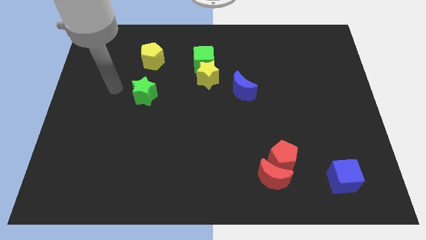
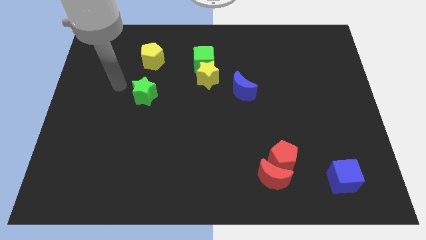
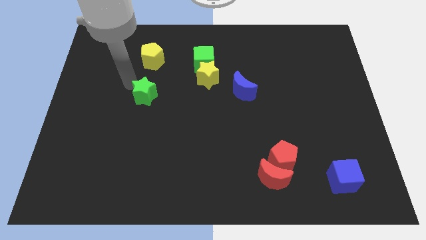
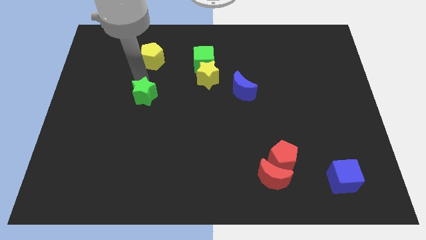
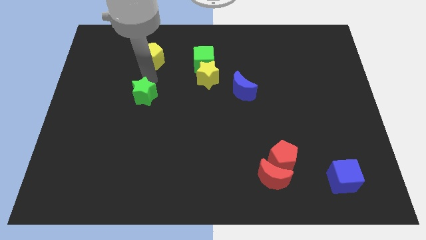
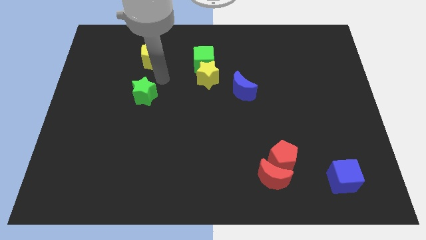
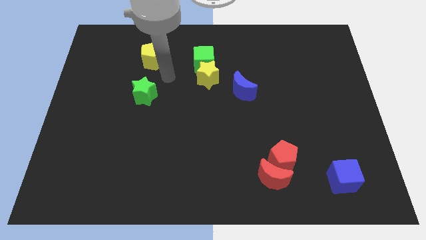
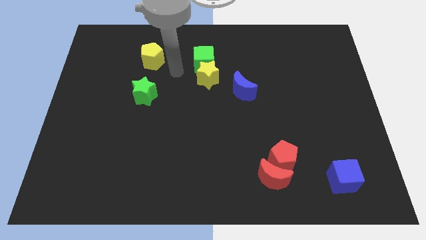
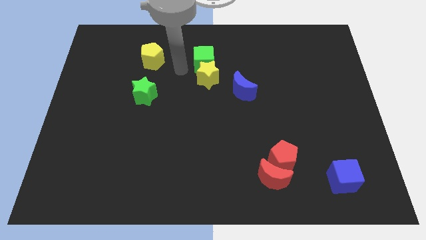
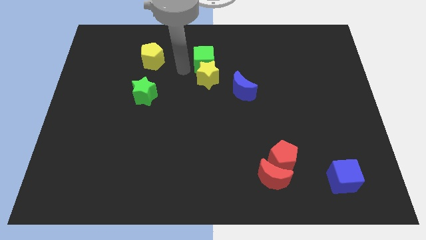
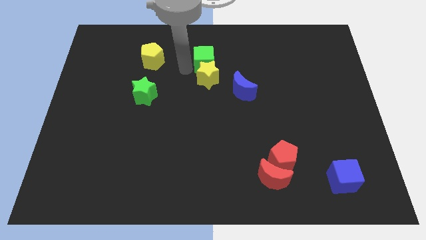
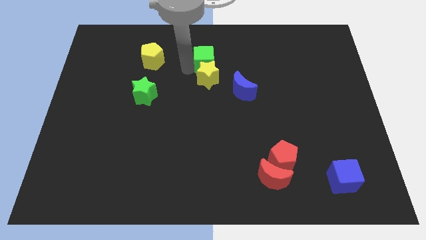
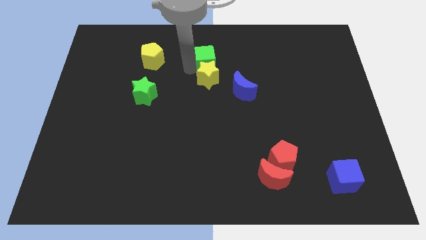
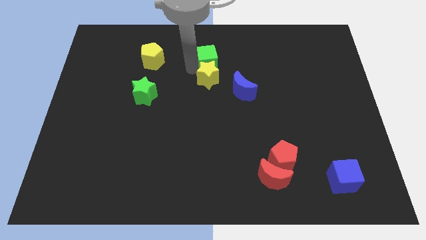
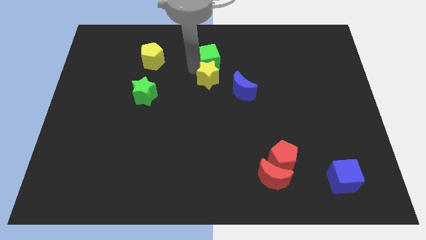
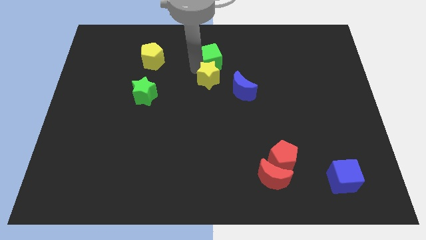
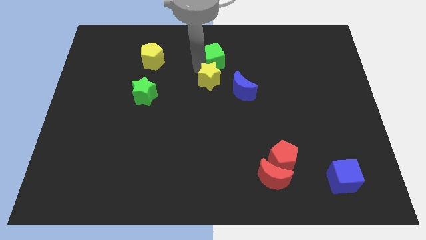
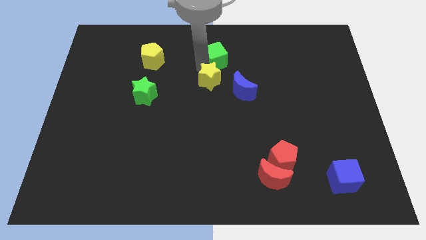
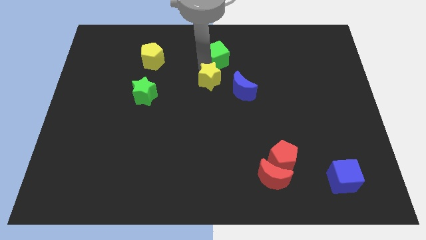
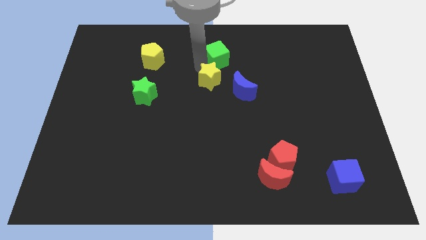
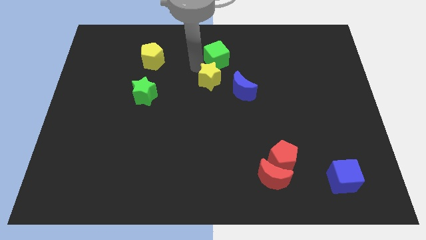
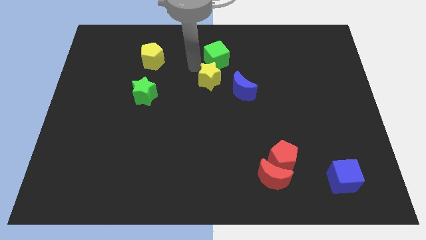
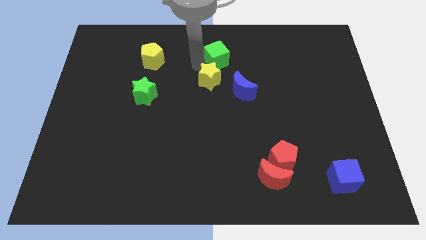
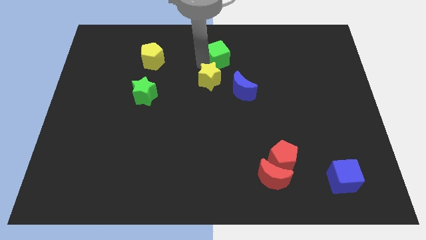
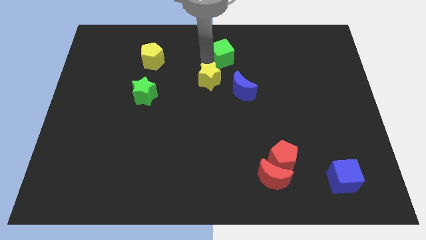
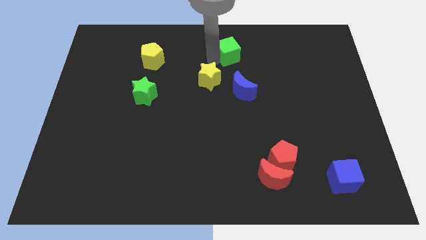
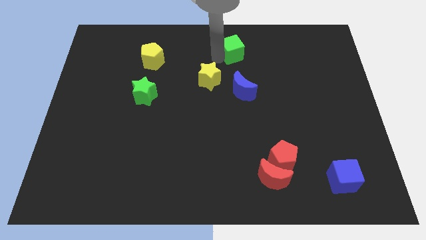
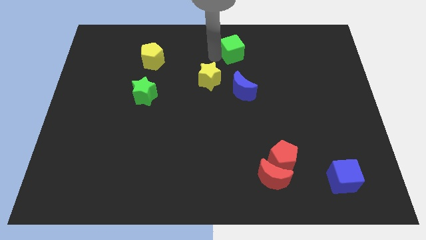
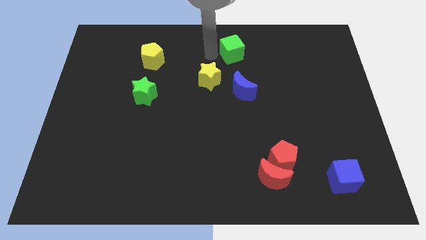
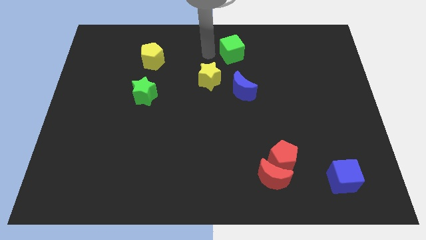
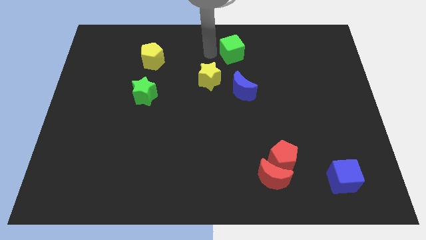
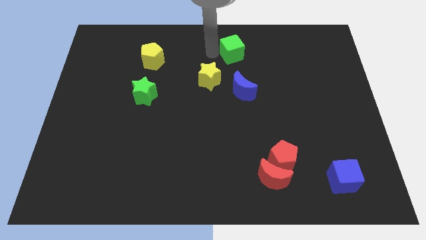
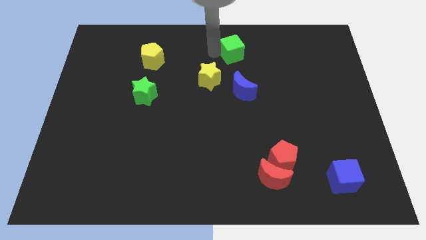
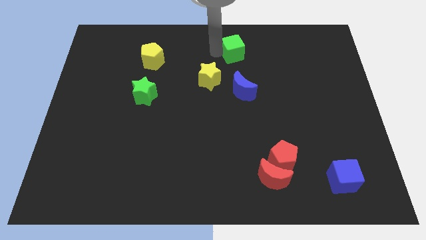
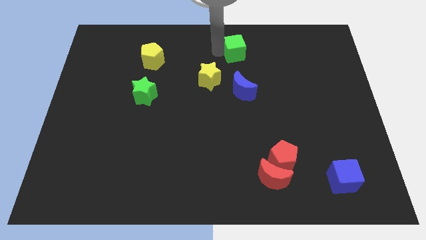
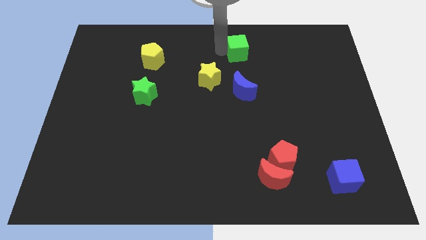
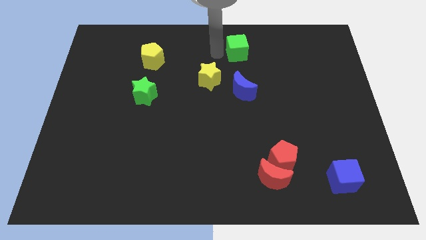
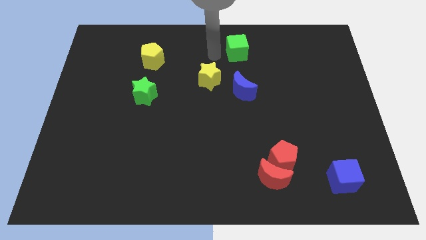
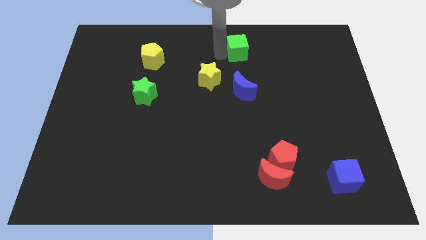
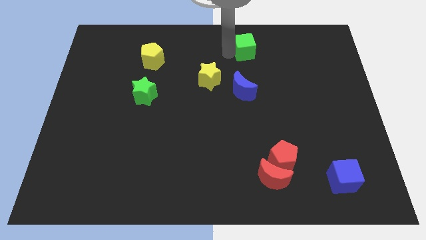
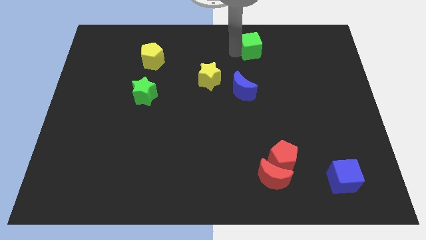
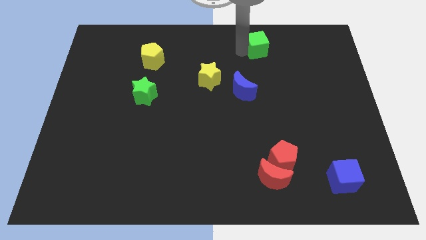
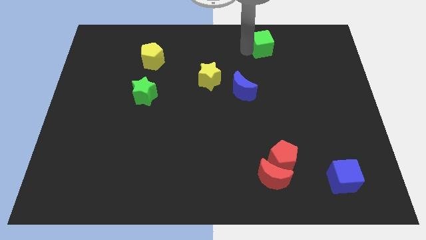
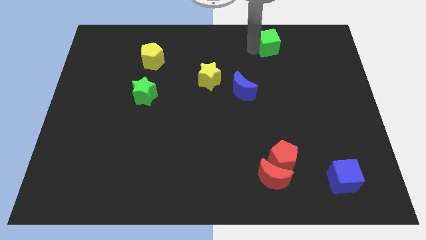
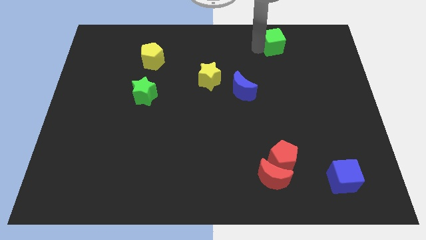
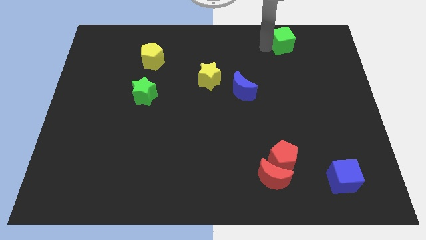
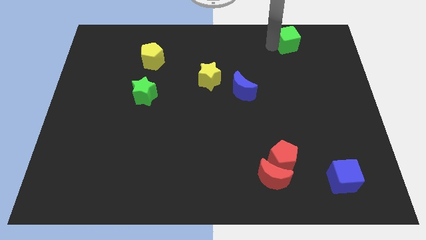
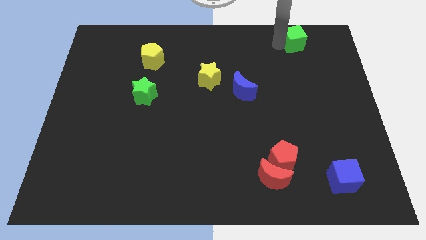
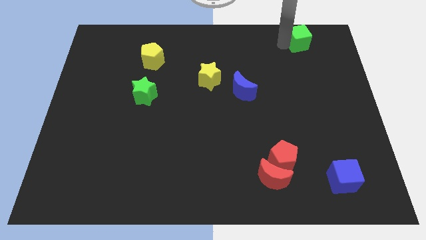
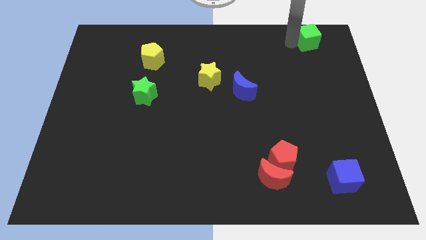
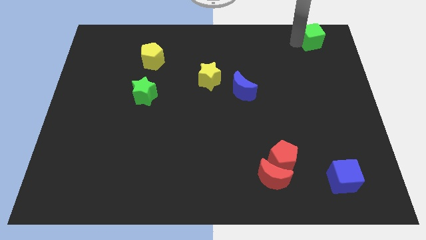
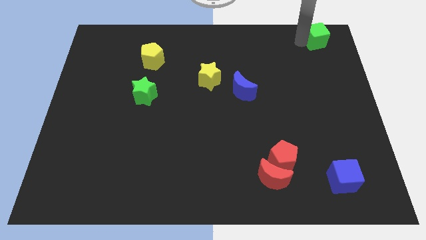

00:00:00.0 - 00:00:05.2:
move the green cube to the top right corner

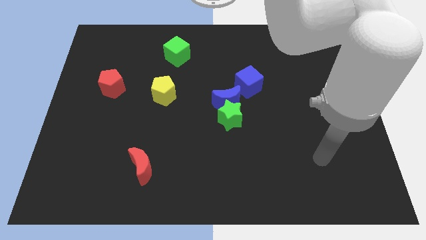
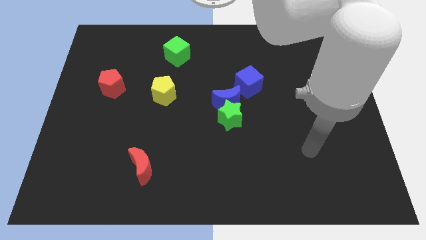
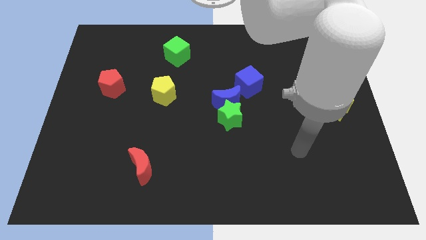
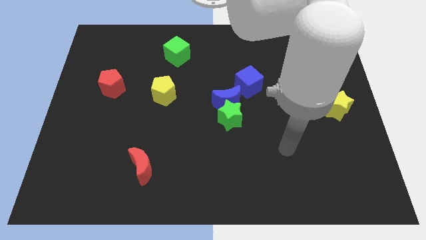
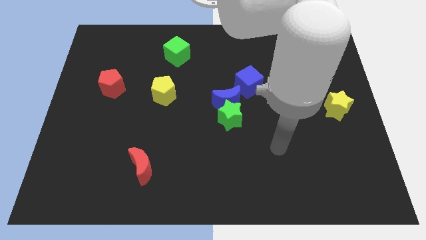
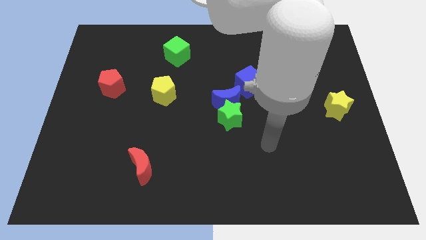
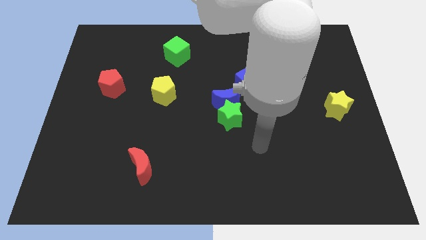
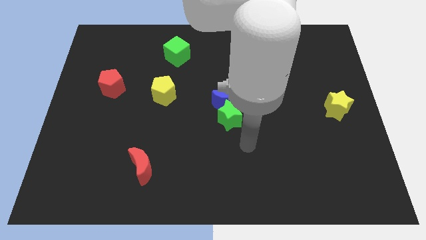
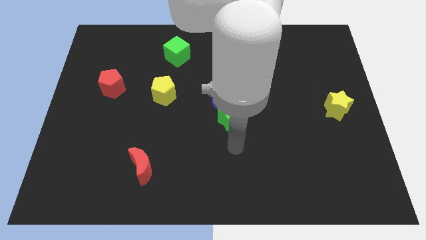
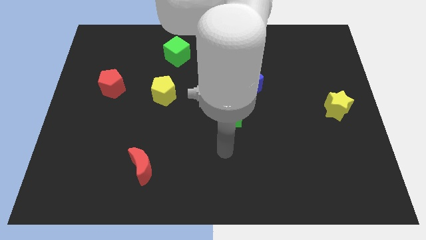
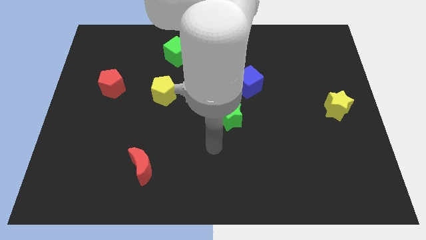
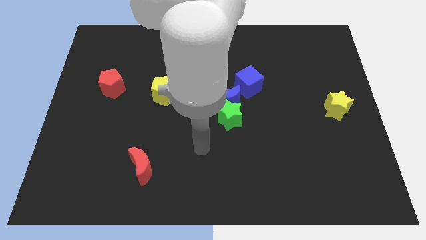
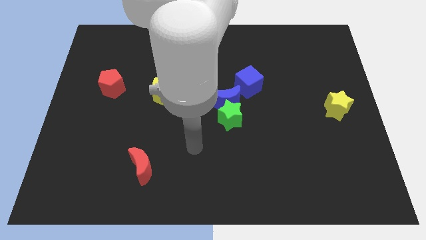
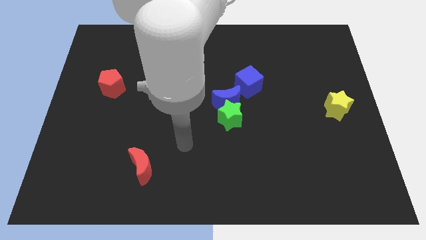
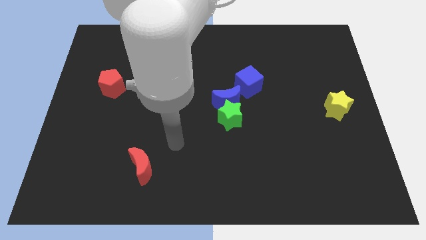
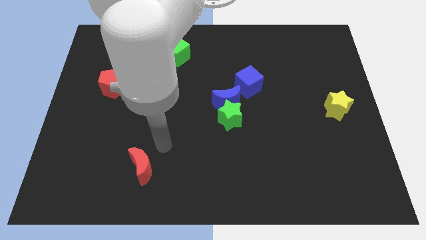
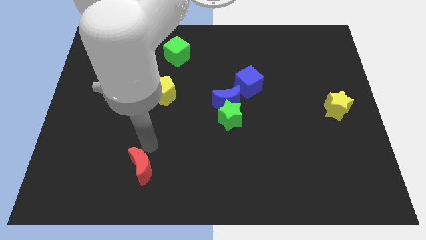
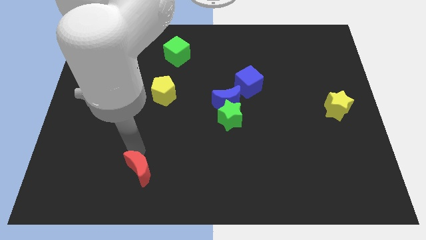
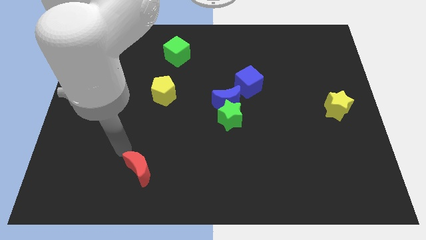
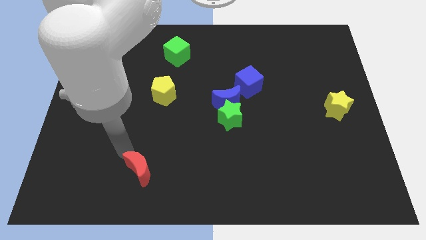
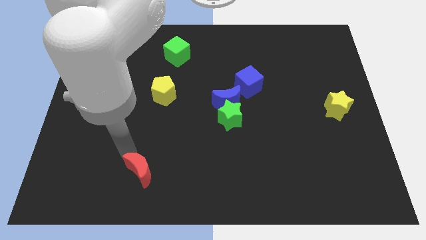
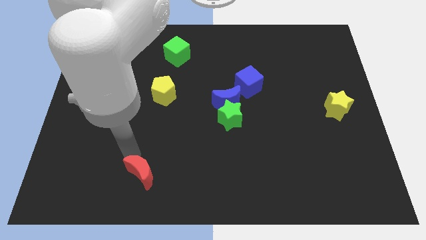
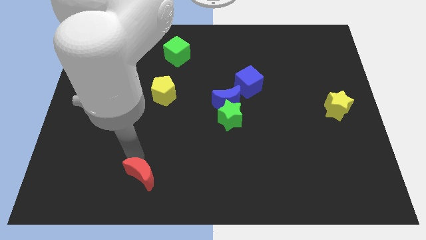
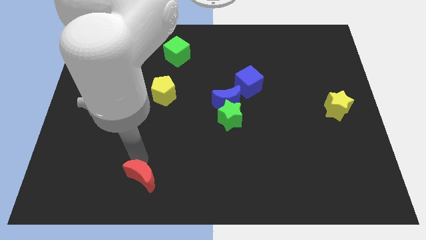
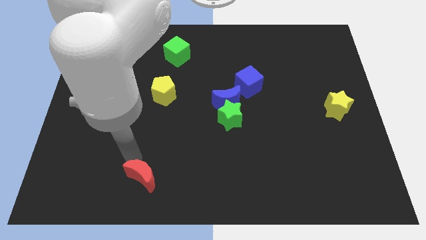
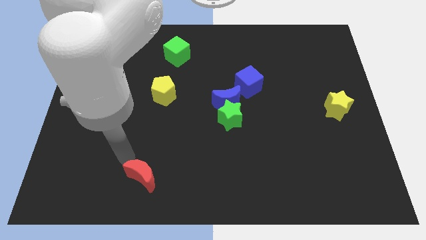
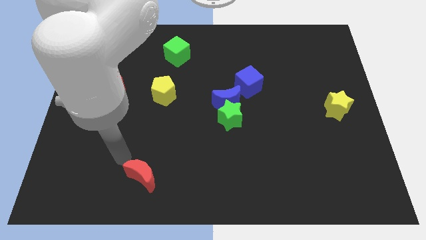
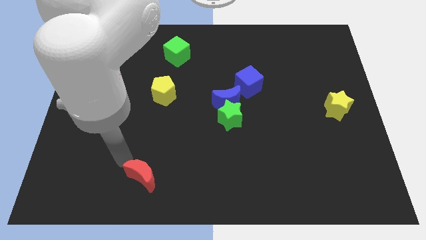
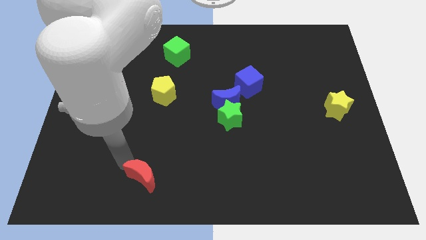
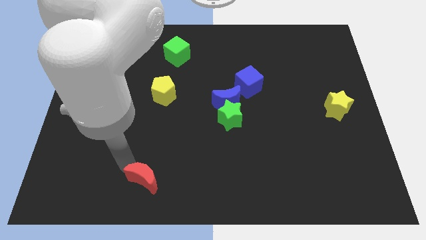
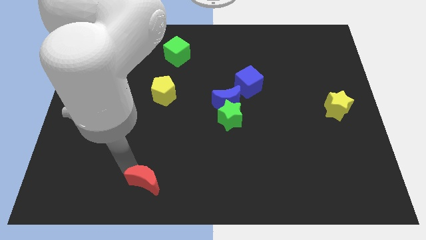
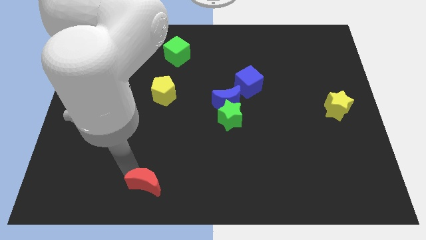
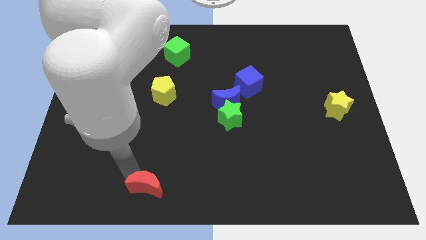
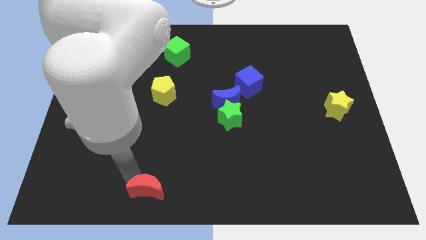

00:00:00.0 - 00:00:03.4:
put the red moon to the bottom side
